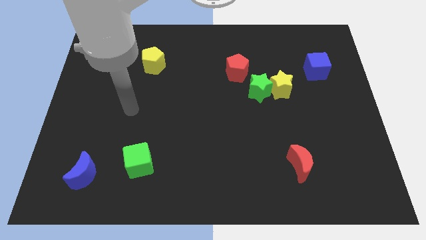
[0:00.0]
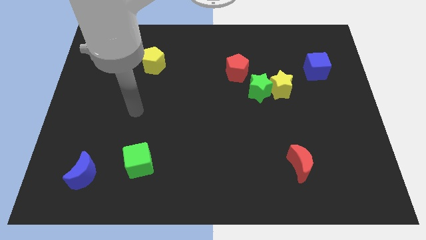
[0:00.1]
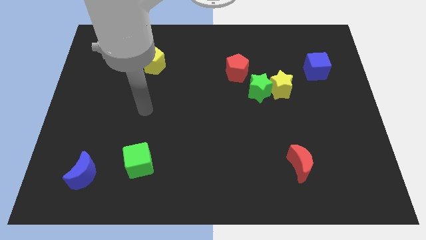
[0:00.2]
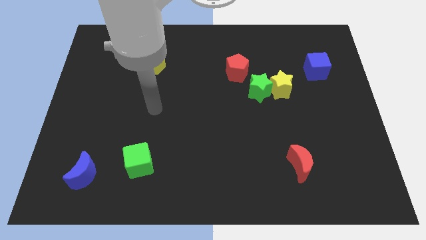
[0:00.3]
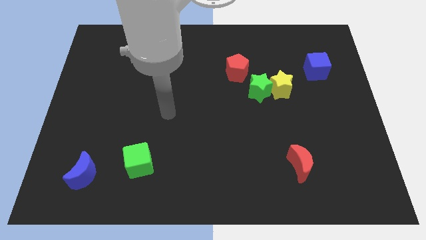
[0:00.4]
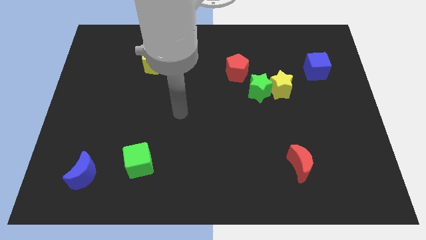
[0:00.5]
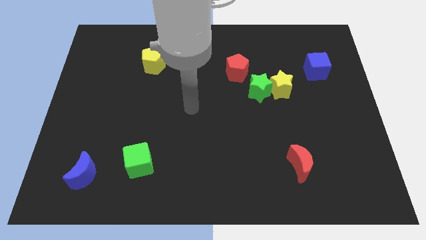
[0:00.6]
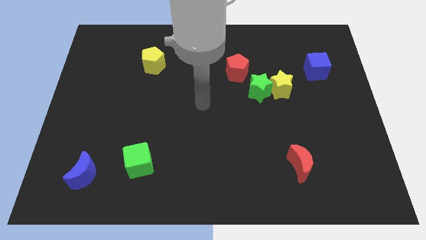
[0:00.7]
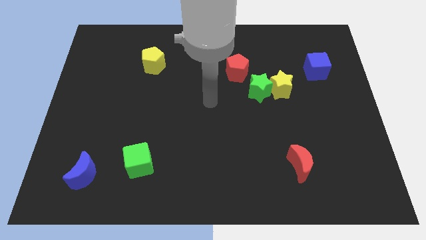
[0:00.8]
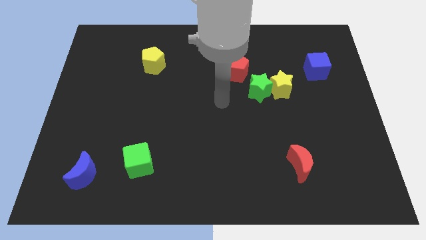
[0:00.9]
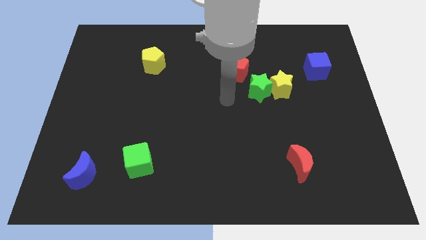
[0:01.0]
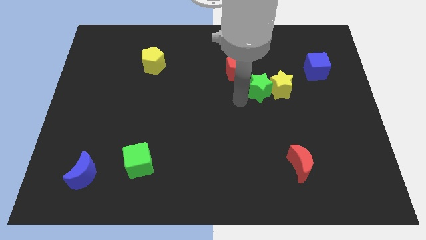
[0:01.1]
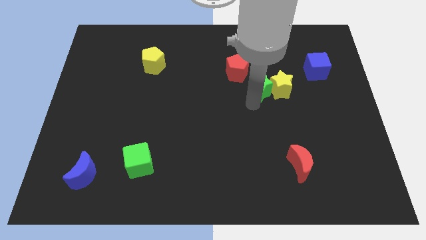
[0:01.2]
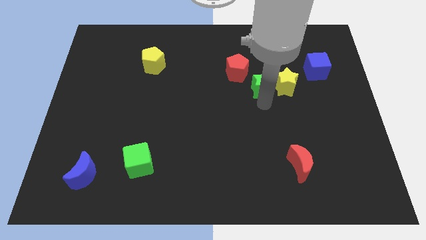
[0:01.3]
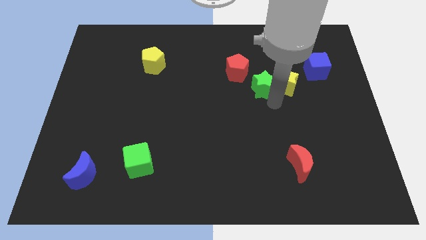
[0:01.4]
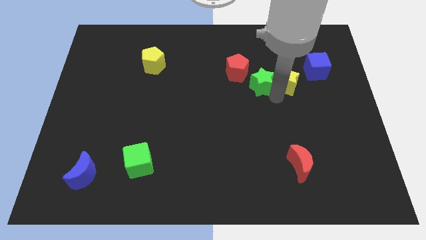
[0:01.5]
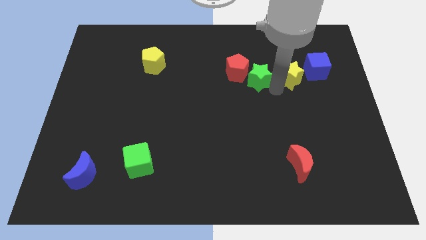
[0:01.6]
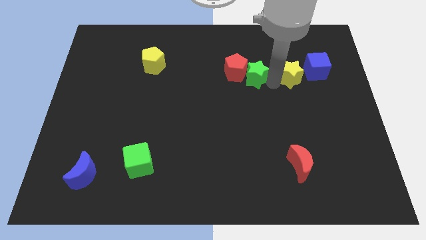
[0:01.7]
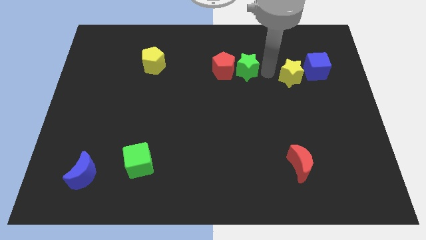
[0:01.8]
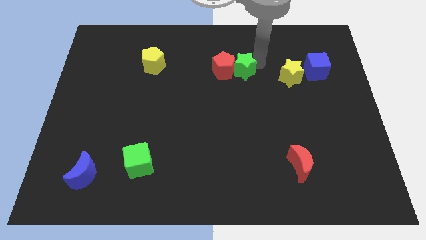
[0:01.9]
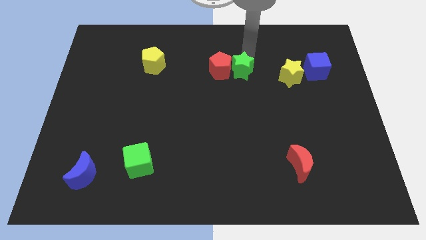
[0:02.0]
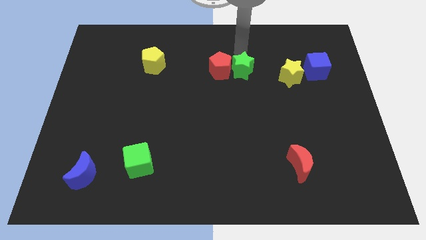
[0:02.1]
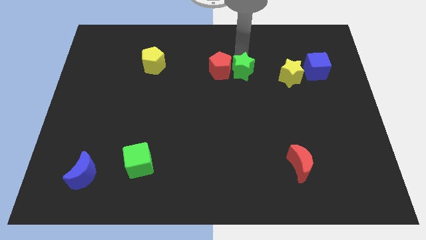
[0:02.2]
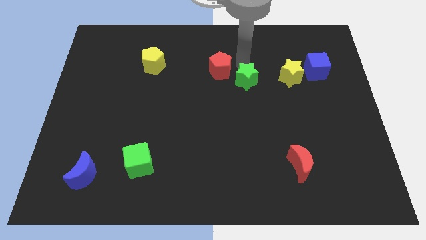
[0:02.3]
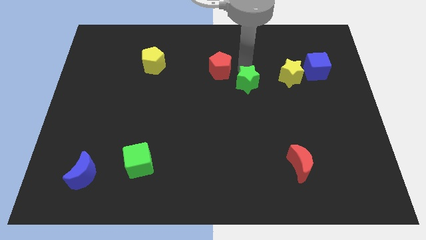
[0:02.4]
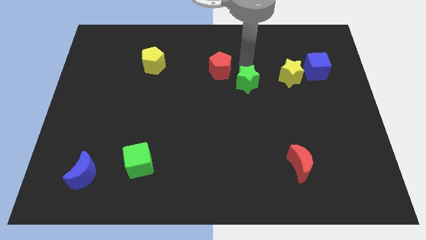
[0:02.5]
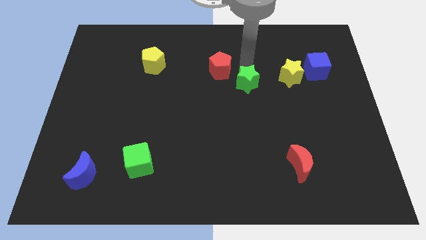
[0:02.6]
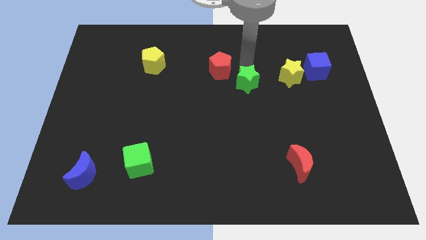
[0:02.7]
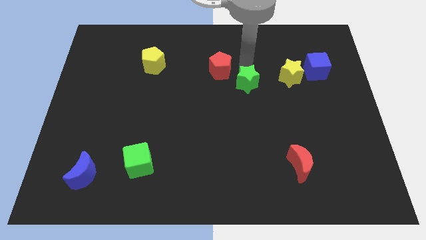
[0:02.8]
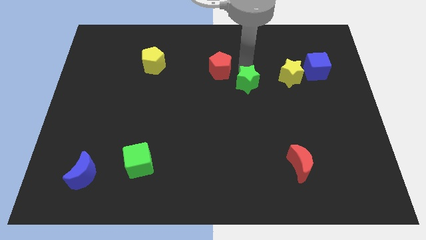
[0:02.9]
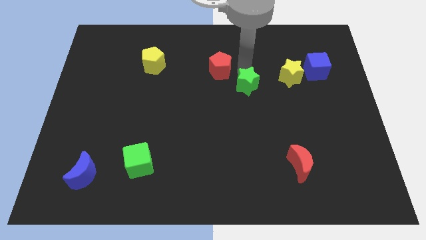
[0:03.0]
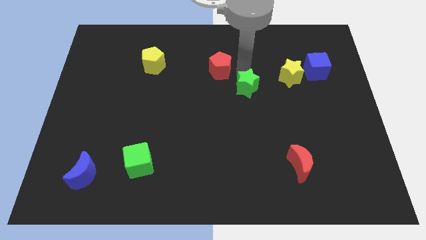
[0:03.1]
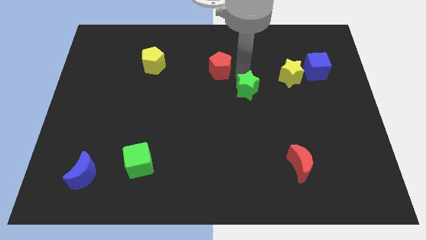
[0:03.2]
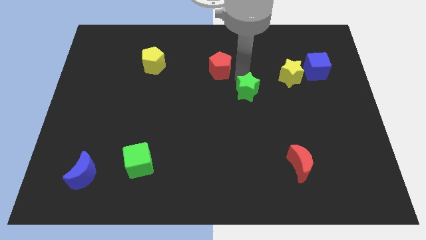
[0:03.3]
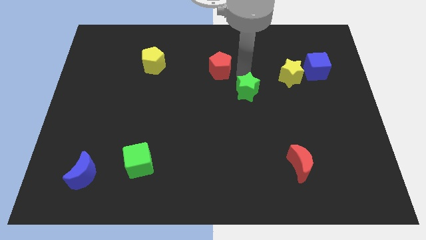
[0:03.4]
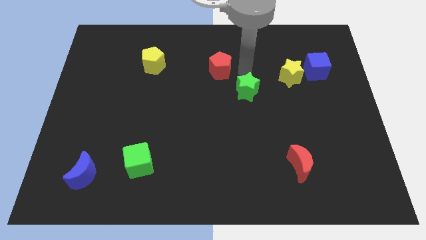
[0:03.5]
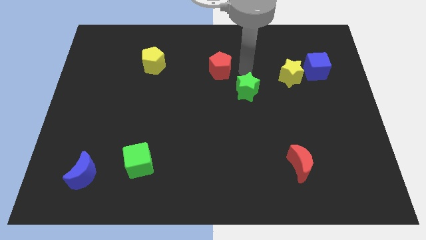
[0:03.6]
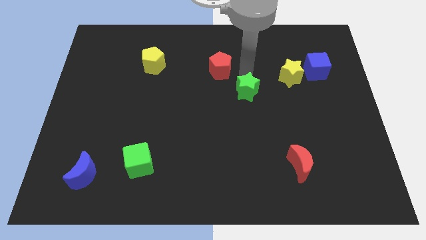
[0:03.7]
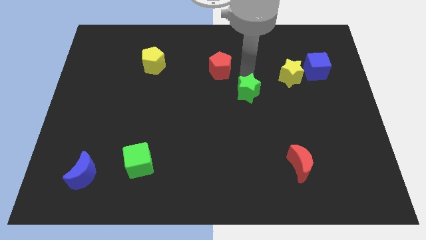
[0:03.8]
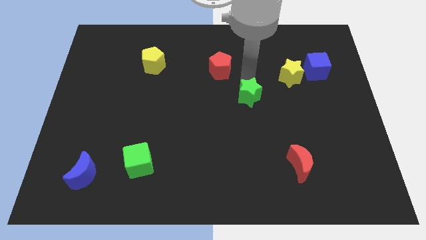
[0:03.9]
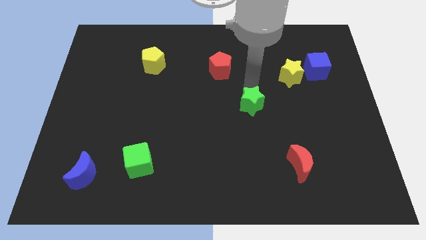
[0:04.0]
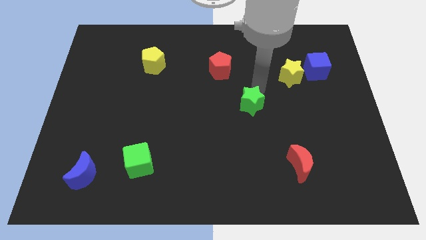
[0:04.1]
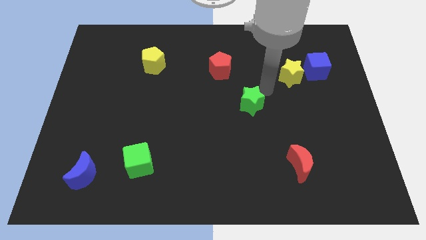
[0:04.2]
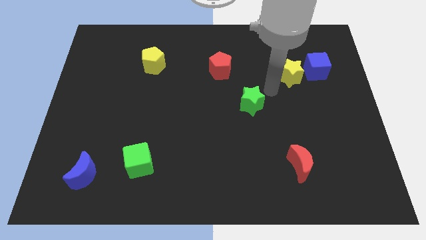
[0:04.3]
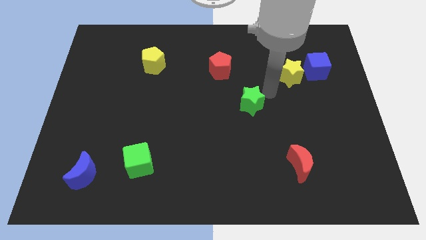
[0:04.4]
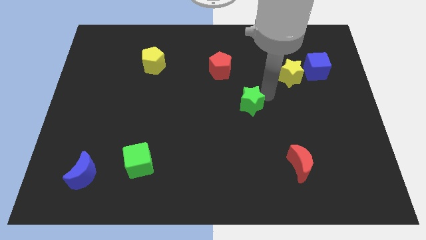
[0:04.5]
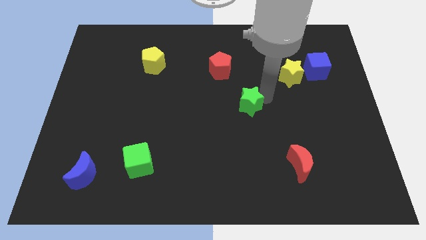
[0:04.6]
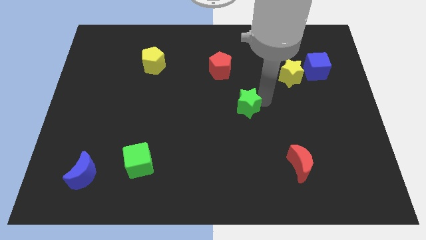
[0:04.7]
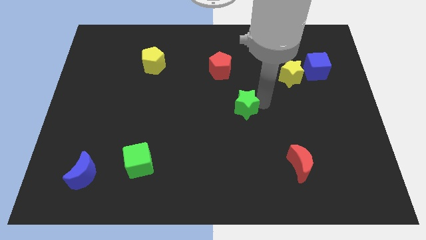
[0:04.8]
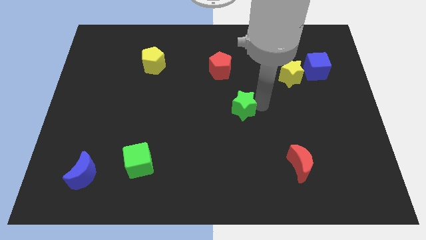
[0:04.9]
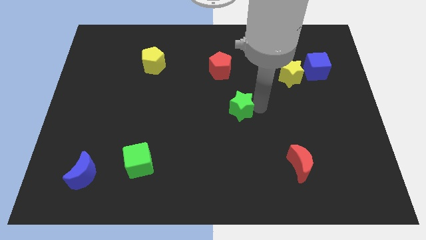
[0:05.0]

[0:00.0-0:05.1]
slightly slide the green star down and then to the left

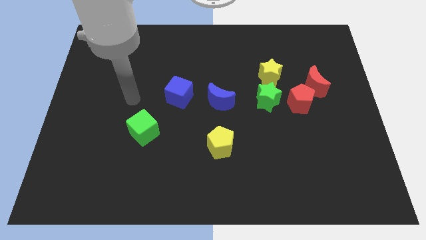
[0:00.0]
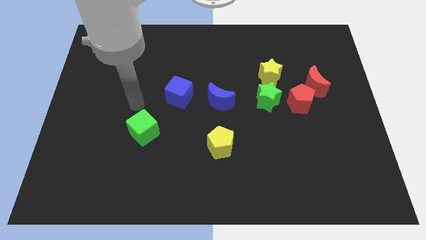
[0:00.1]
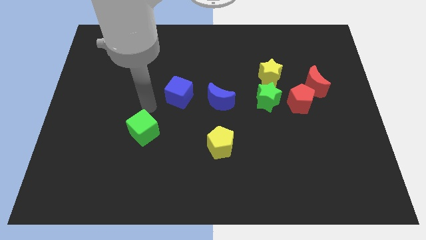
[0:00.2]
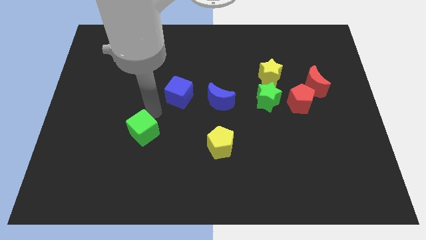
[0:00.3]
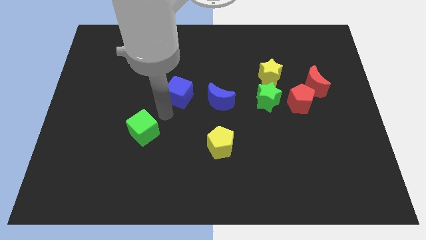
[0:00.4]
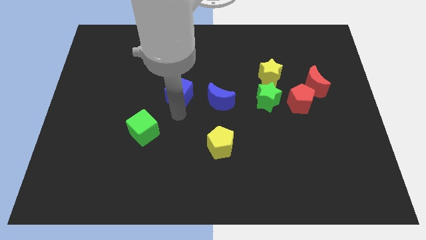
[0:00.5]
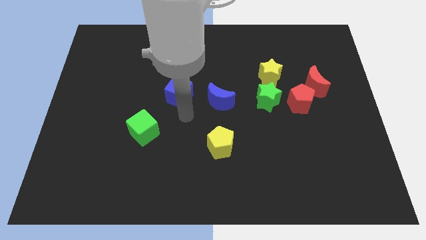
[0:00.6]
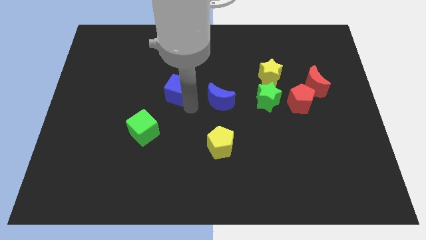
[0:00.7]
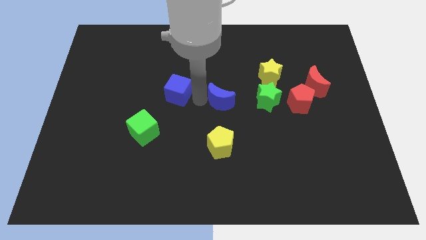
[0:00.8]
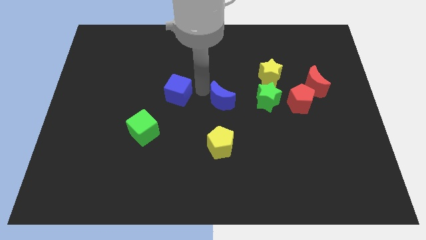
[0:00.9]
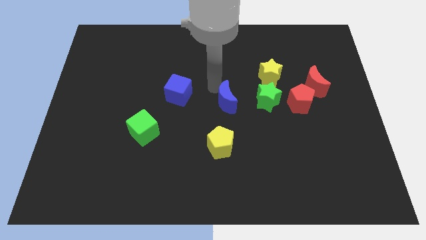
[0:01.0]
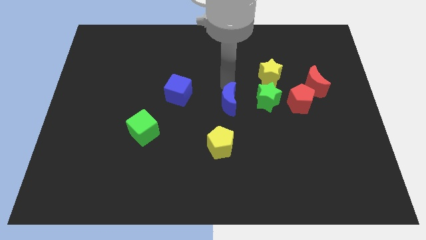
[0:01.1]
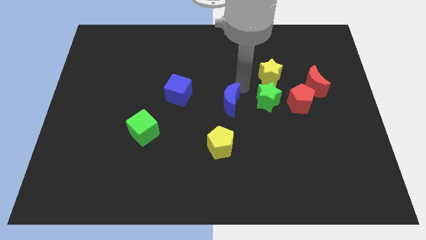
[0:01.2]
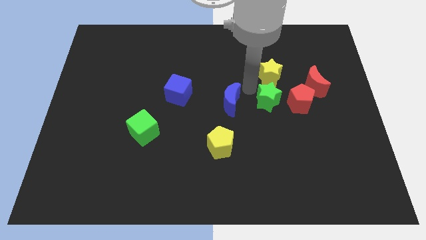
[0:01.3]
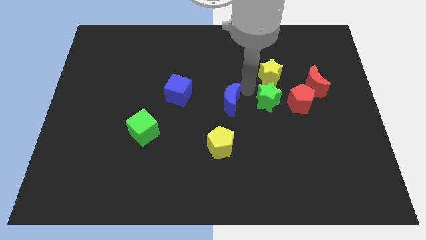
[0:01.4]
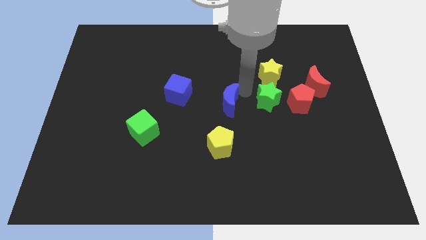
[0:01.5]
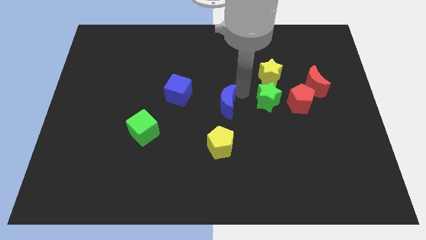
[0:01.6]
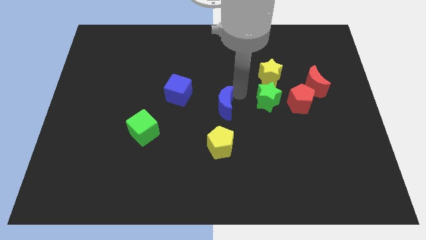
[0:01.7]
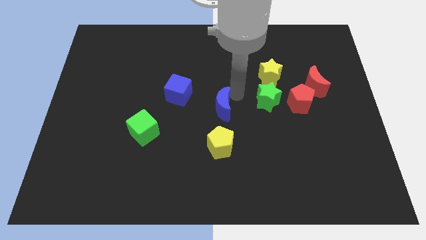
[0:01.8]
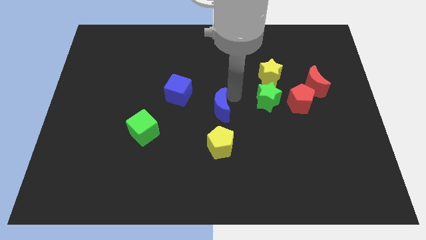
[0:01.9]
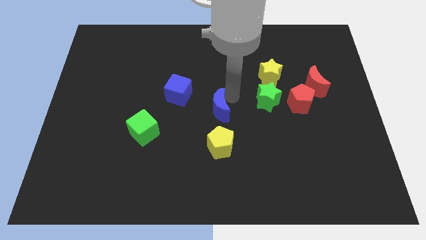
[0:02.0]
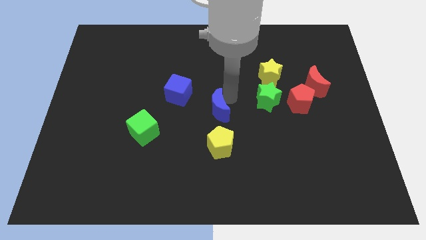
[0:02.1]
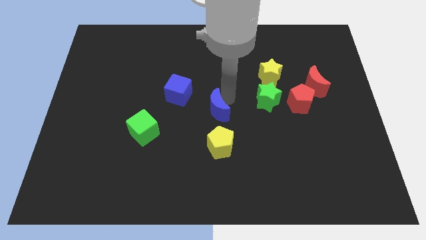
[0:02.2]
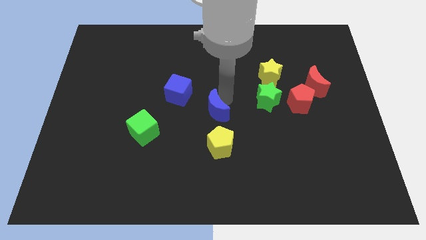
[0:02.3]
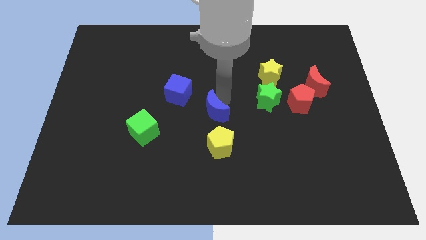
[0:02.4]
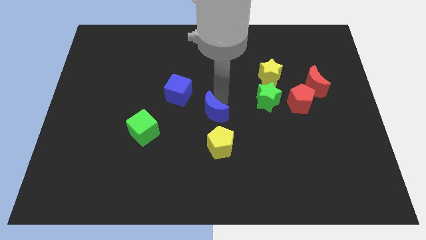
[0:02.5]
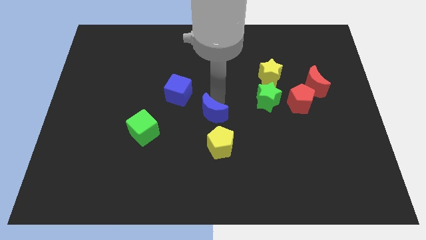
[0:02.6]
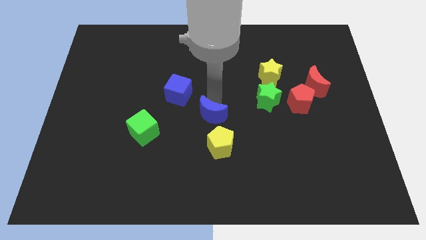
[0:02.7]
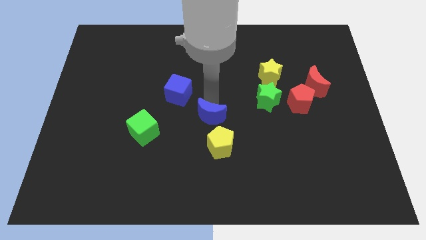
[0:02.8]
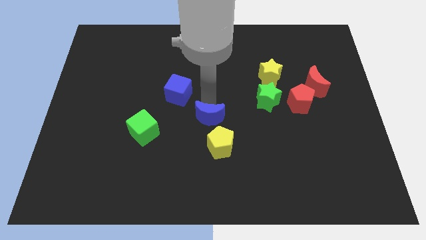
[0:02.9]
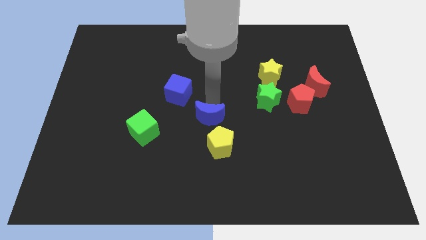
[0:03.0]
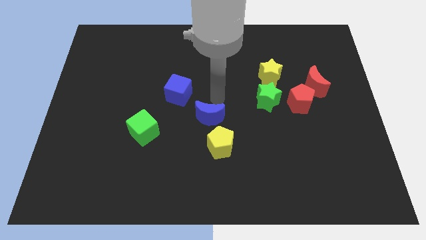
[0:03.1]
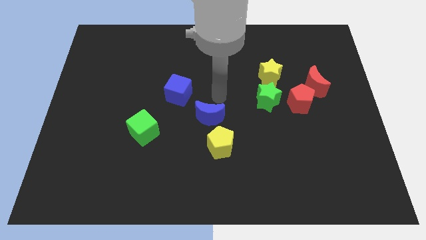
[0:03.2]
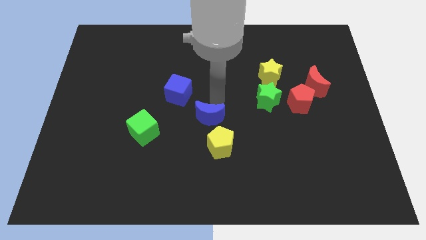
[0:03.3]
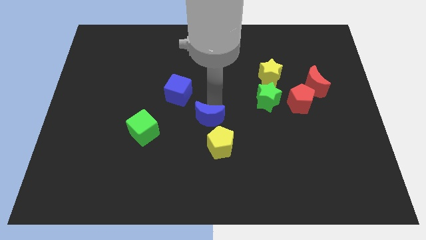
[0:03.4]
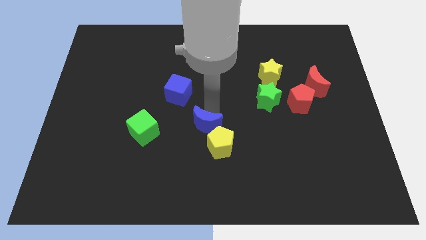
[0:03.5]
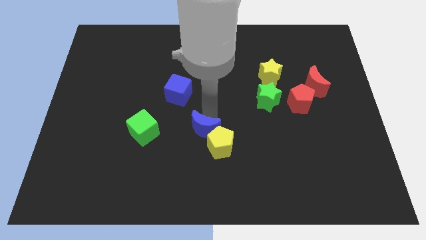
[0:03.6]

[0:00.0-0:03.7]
move the blue moon down slightly
